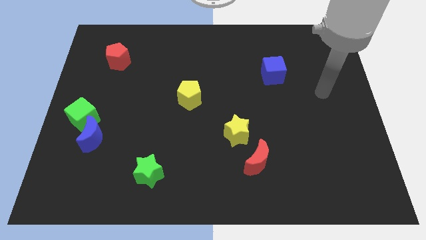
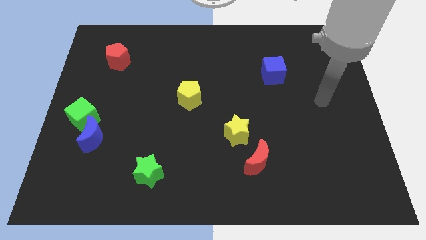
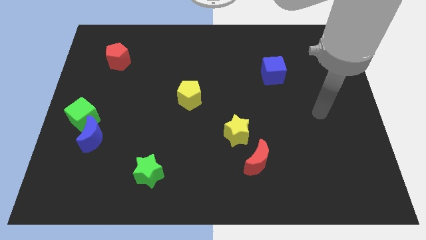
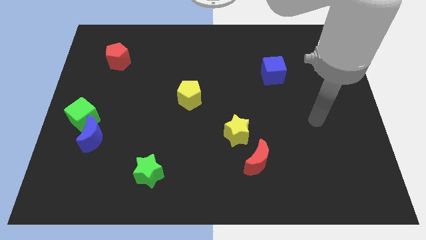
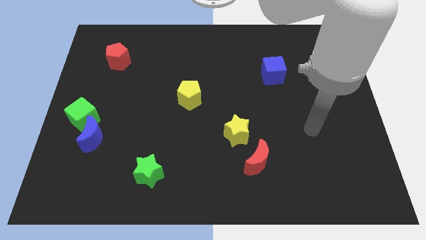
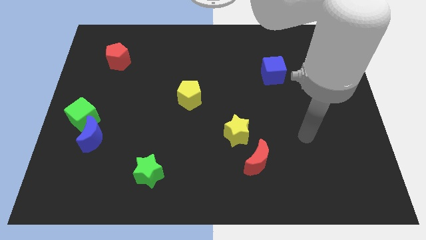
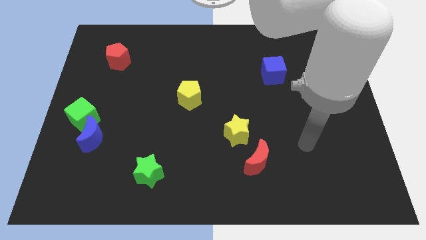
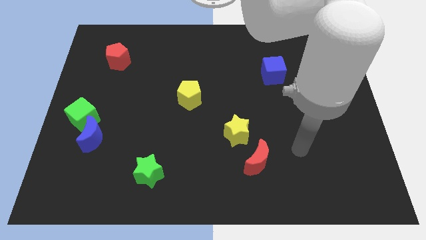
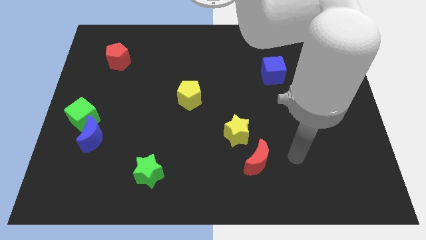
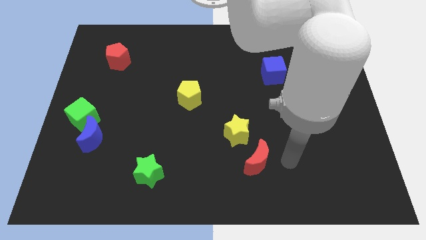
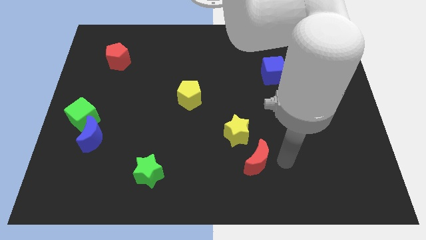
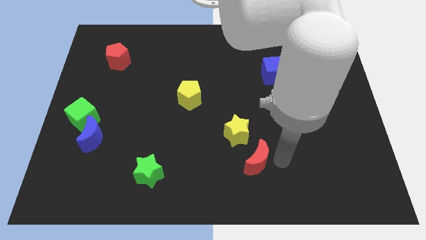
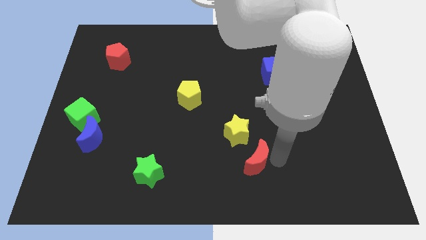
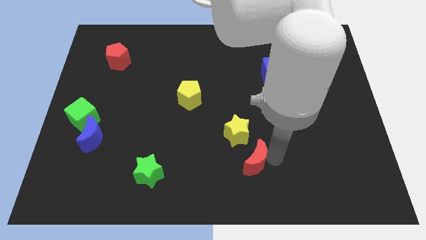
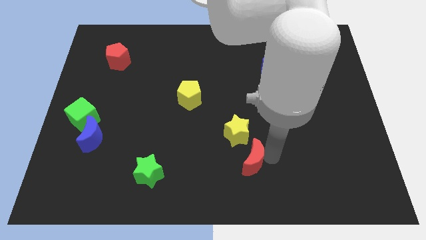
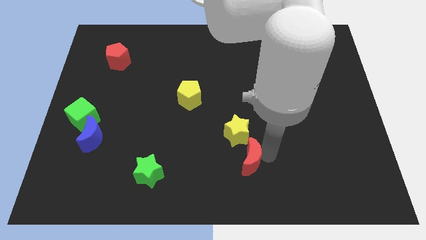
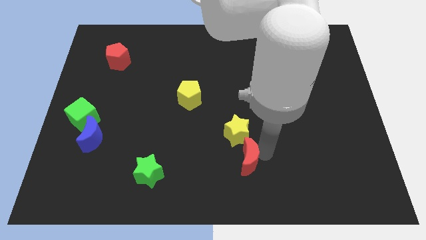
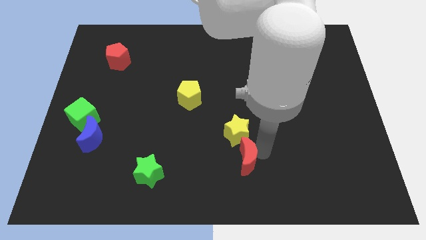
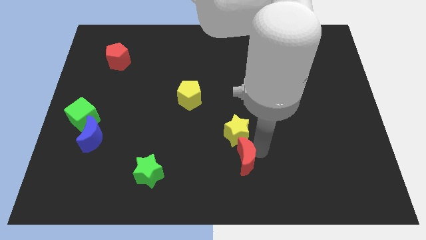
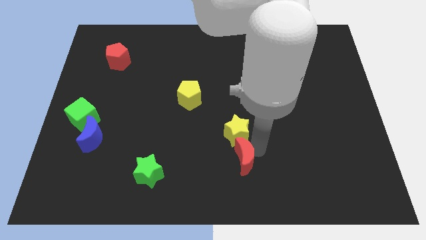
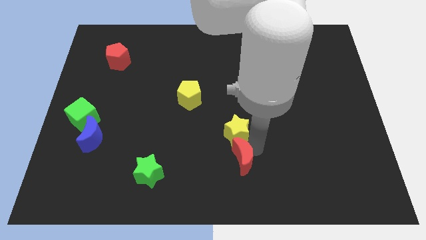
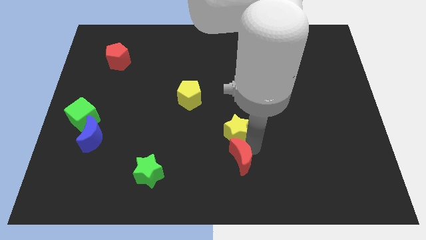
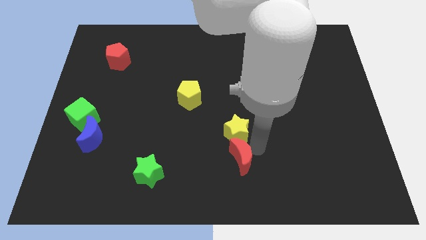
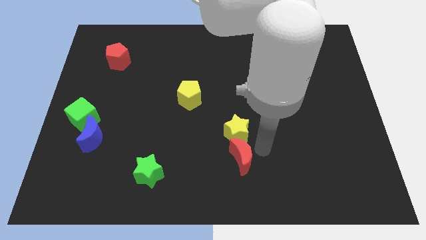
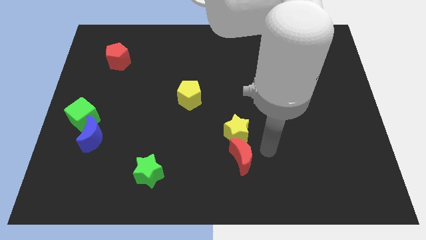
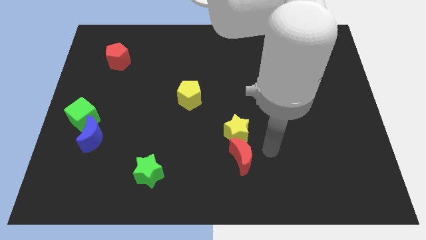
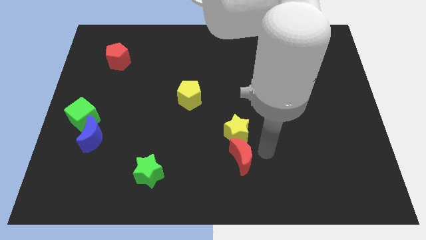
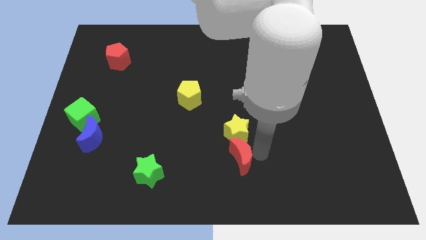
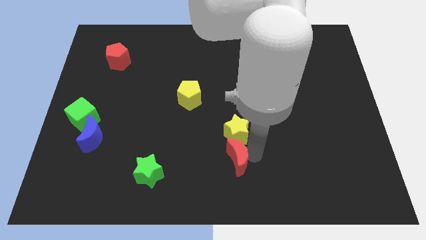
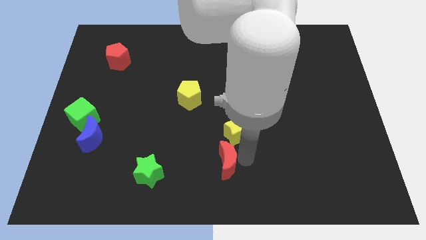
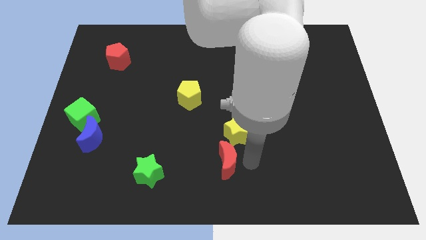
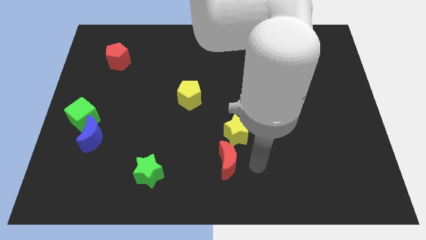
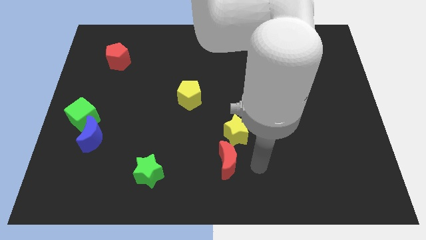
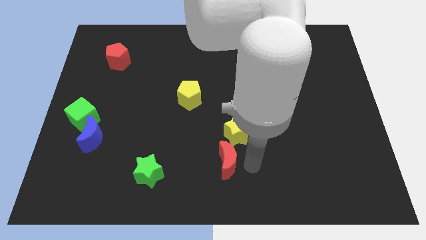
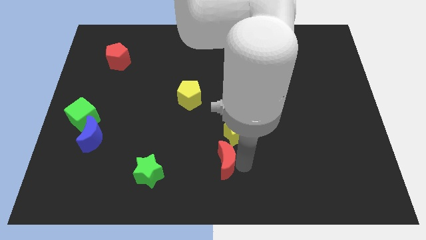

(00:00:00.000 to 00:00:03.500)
move the red moon somewhat to the left

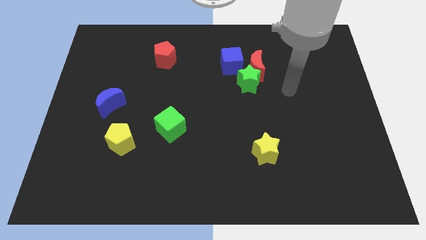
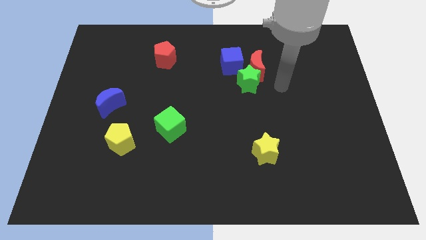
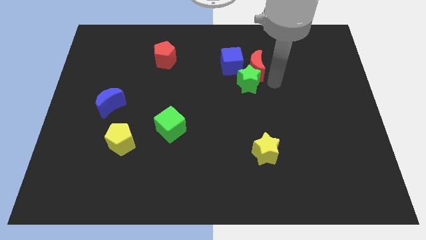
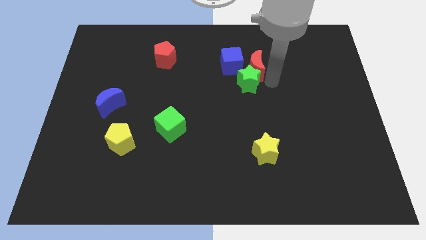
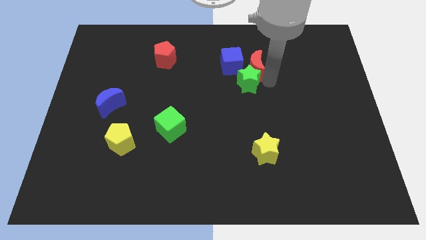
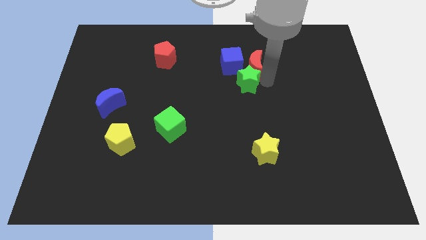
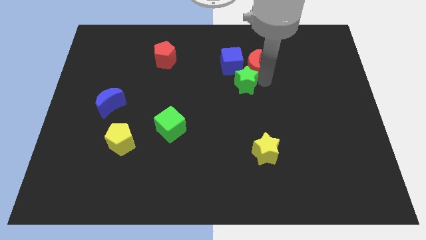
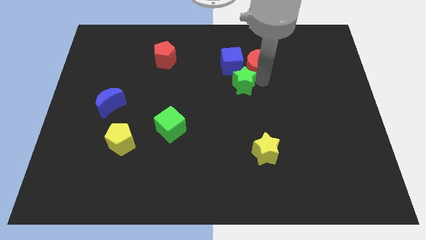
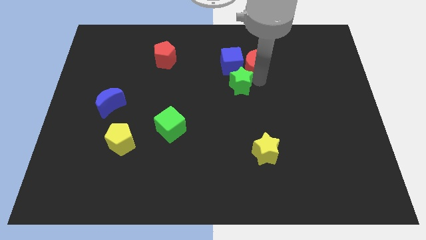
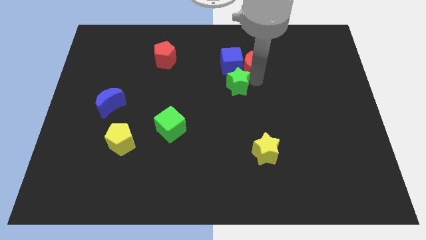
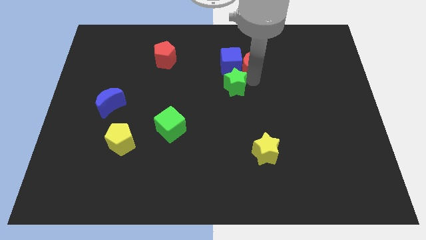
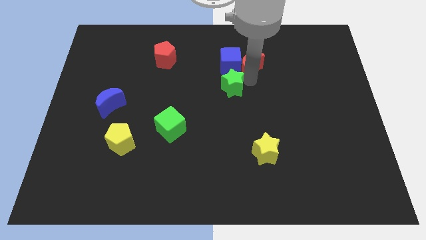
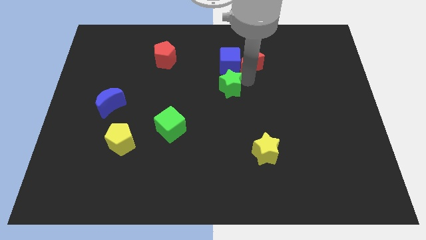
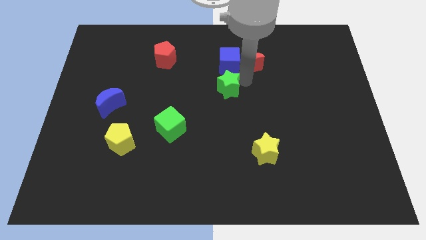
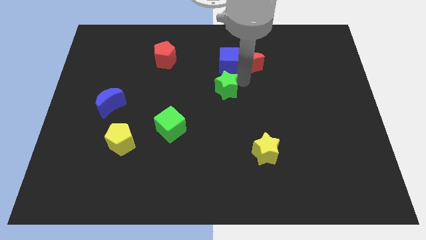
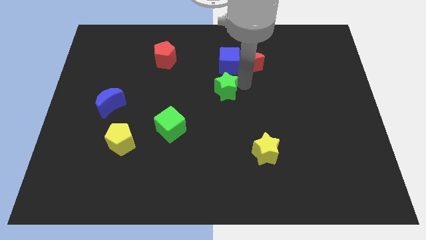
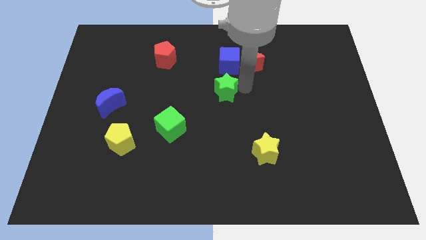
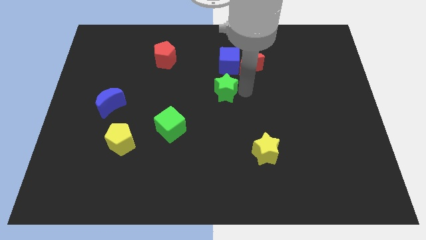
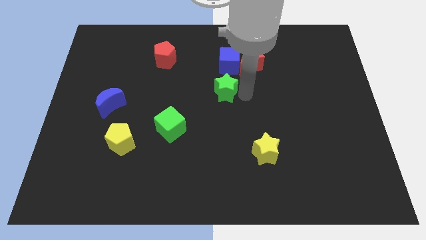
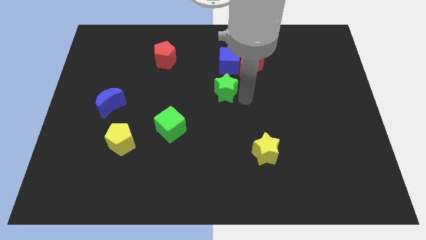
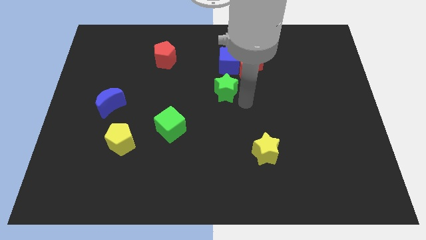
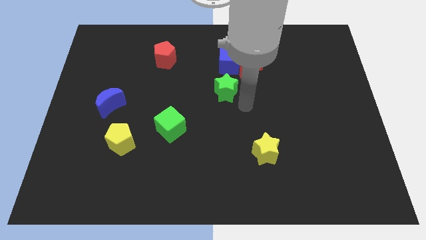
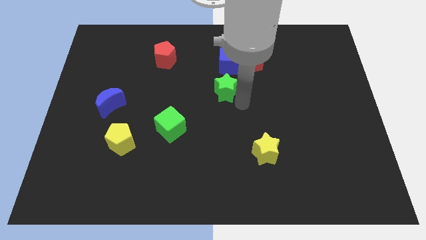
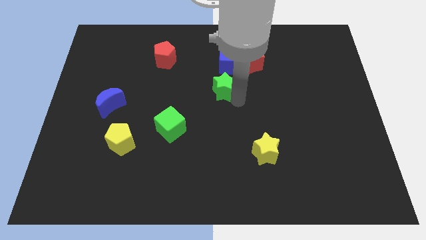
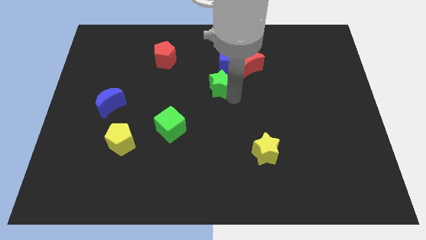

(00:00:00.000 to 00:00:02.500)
move the green star somewhat to the left

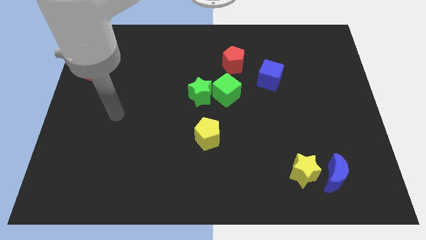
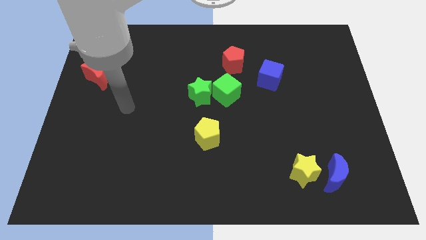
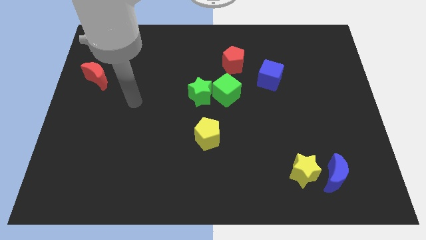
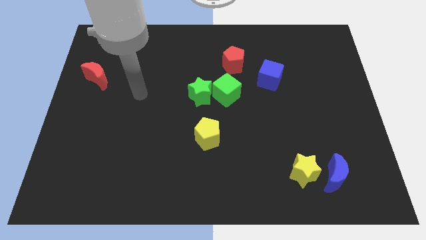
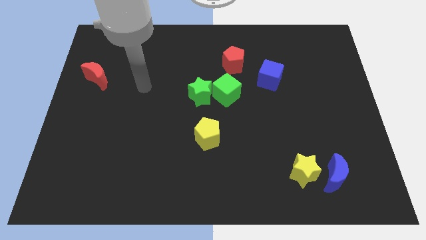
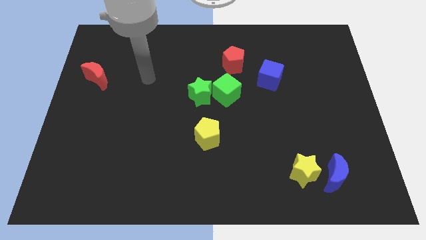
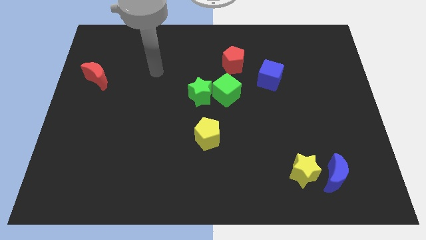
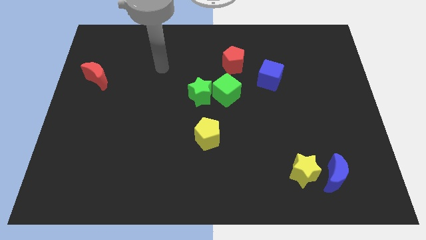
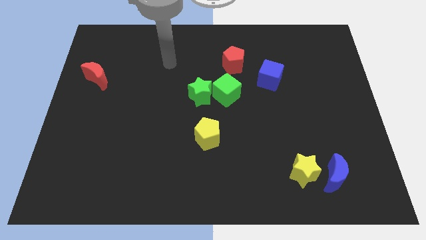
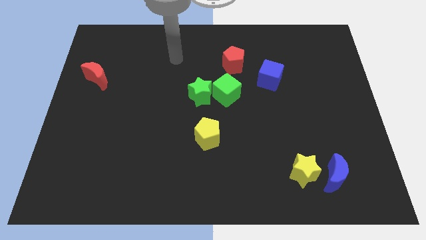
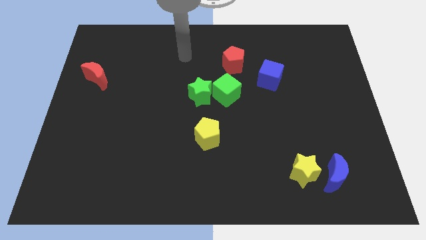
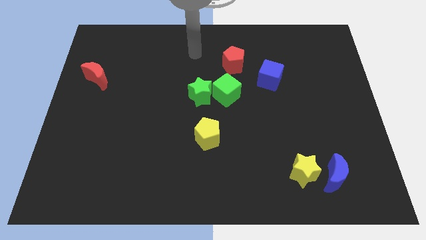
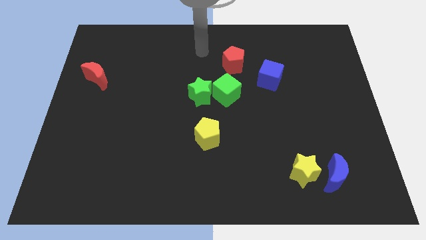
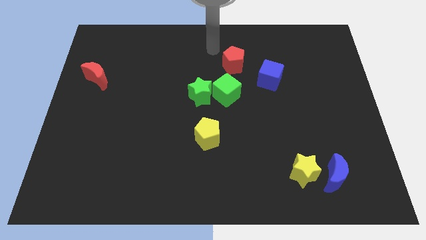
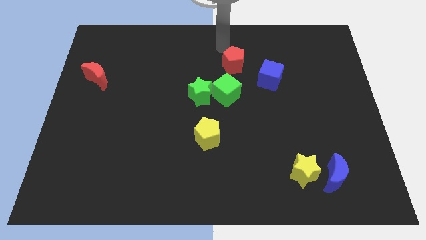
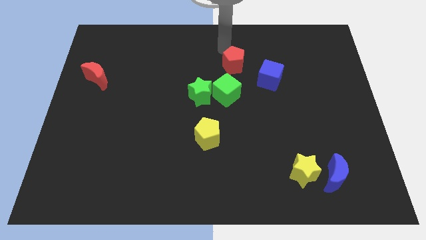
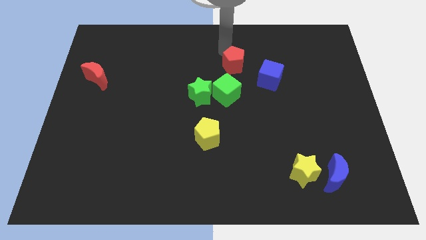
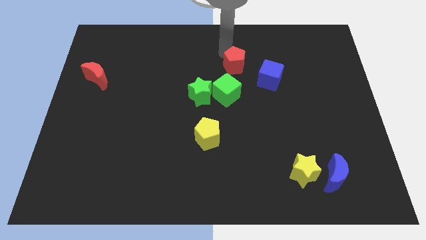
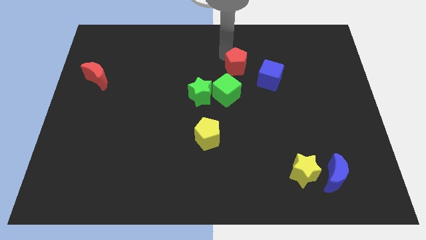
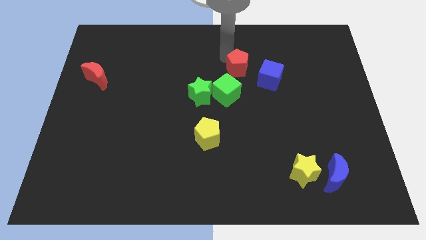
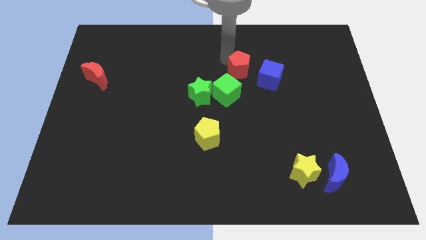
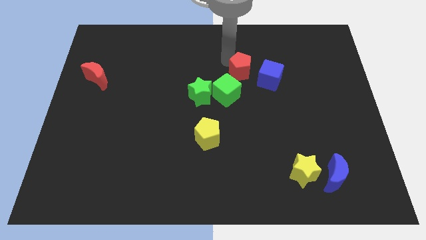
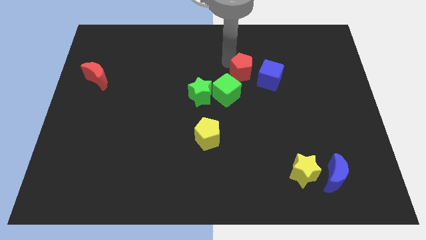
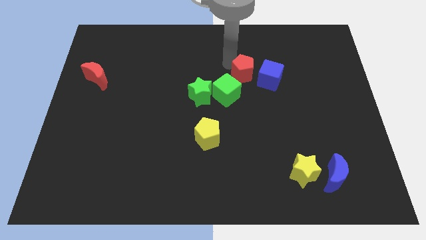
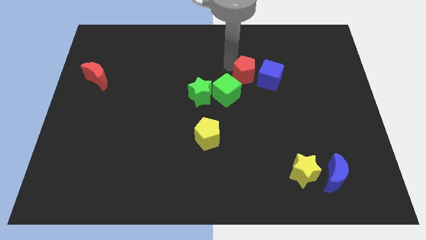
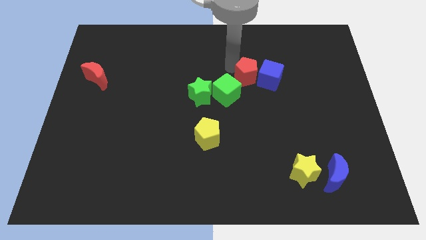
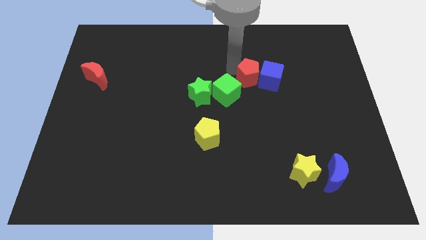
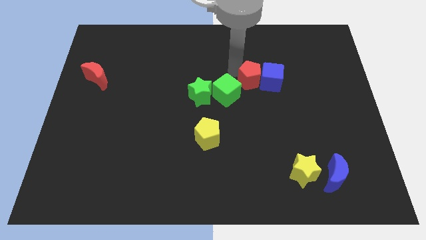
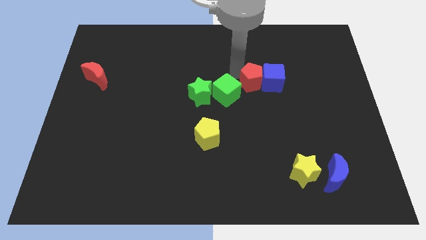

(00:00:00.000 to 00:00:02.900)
slightly slide the red pentagon downwards and right diagonally
